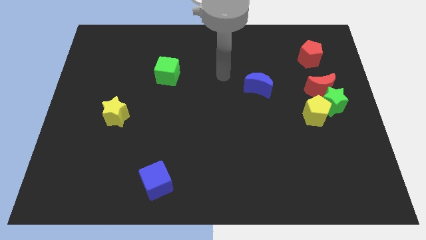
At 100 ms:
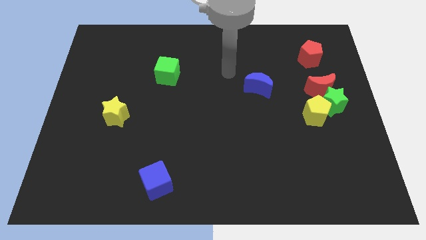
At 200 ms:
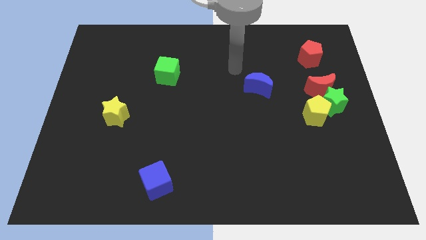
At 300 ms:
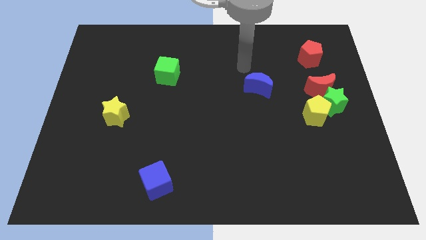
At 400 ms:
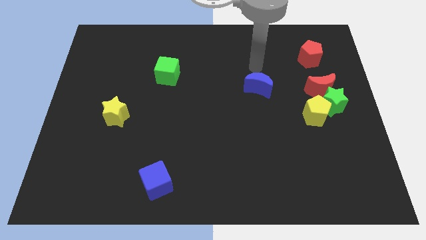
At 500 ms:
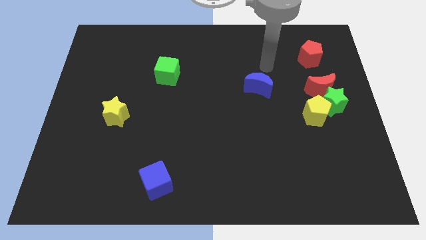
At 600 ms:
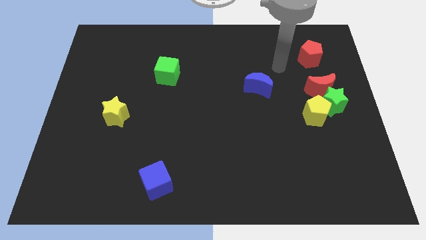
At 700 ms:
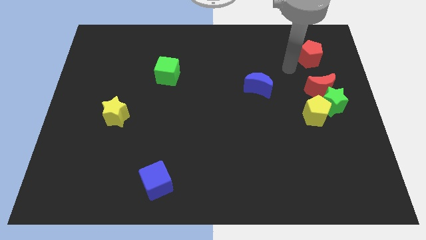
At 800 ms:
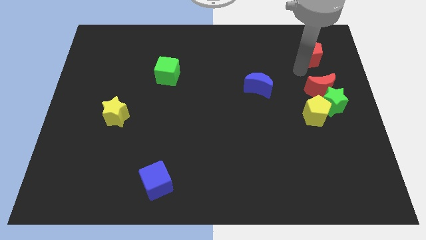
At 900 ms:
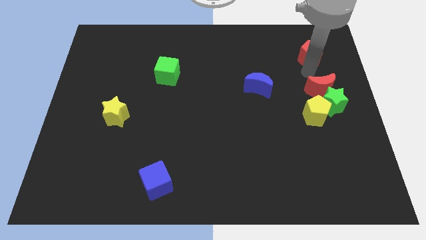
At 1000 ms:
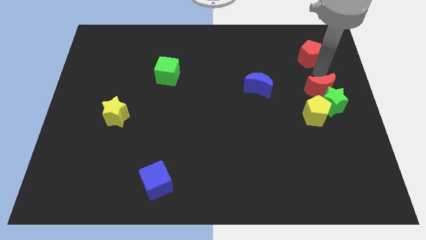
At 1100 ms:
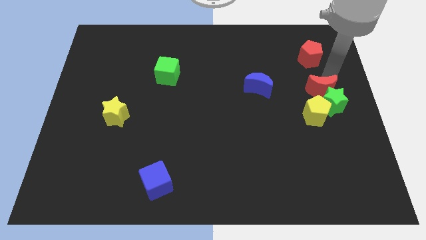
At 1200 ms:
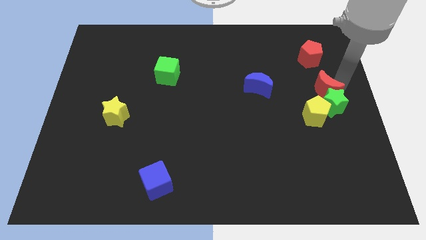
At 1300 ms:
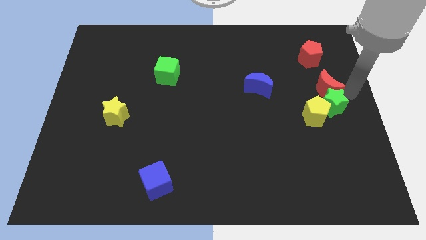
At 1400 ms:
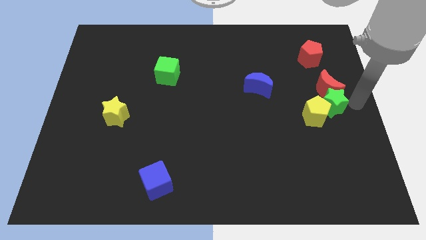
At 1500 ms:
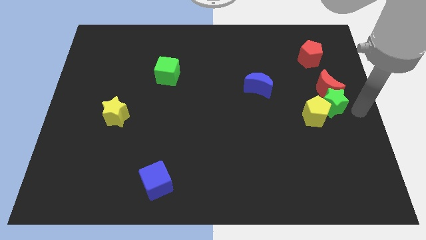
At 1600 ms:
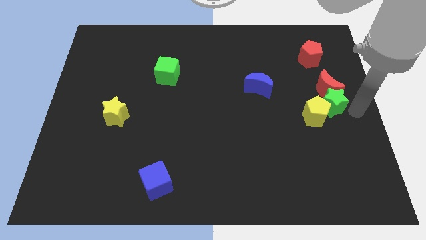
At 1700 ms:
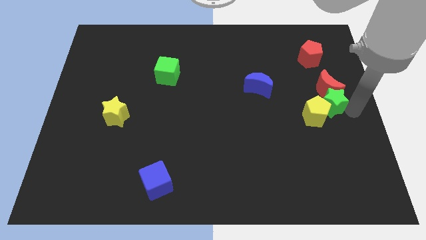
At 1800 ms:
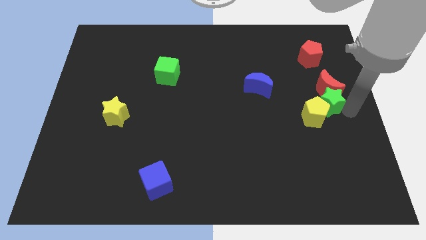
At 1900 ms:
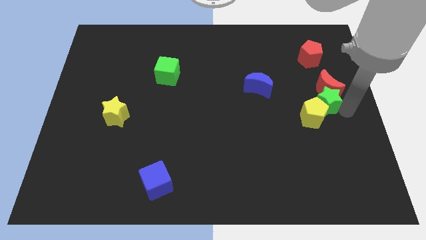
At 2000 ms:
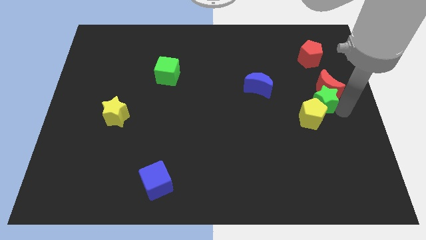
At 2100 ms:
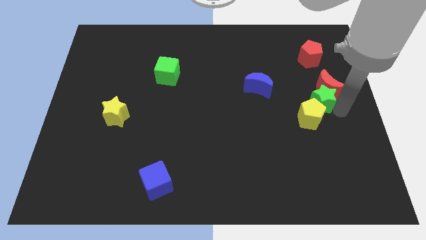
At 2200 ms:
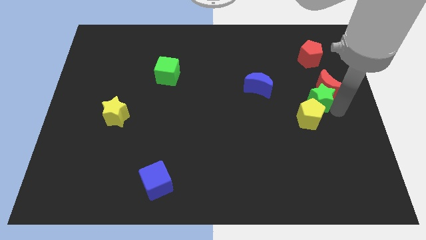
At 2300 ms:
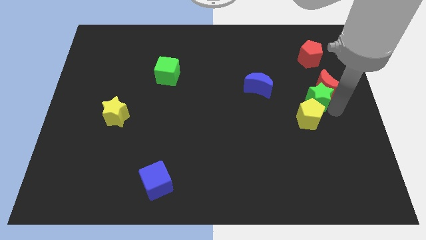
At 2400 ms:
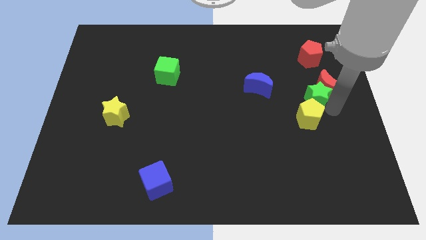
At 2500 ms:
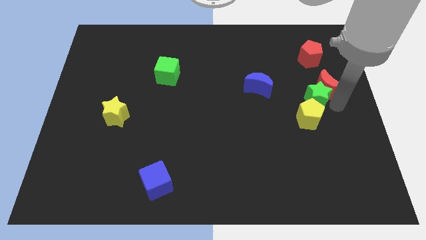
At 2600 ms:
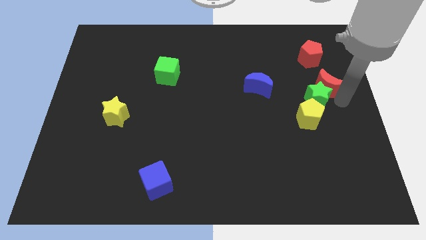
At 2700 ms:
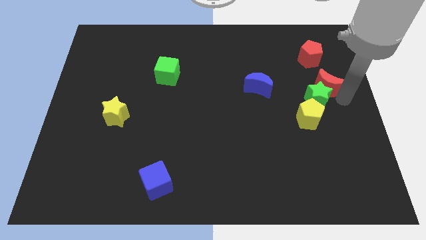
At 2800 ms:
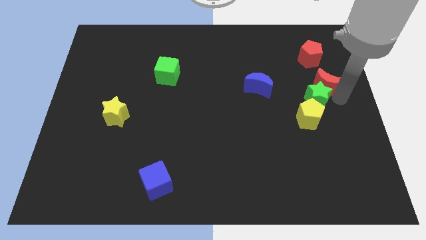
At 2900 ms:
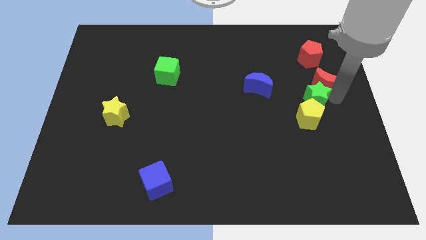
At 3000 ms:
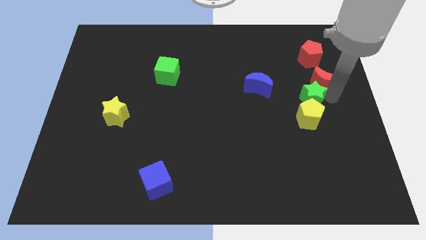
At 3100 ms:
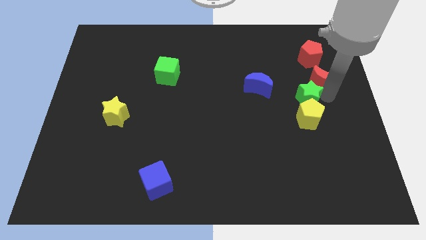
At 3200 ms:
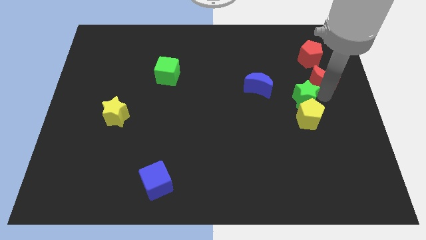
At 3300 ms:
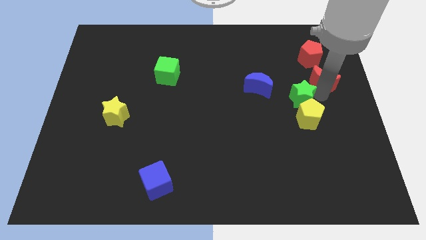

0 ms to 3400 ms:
slightly move the green star left

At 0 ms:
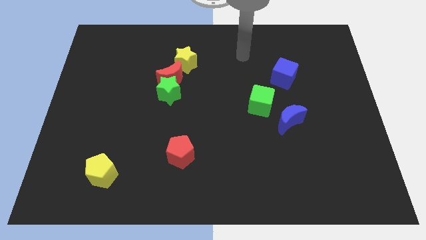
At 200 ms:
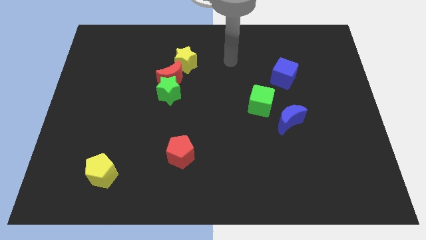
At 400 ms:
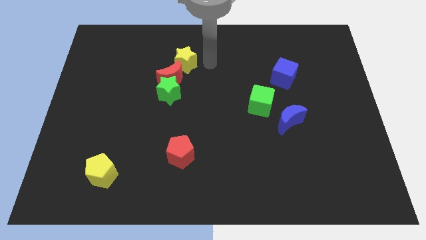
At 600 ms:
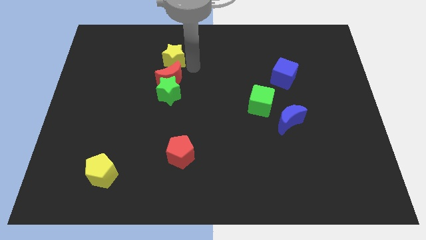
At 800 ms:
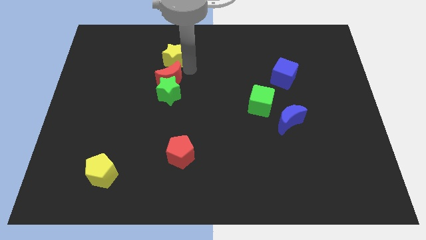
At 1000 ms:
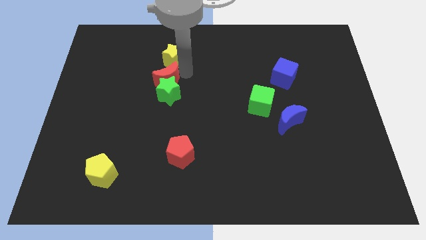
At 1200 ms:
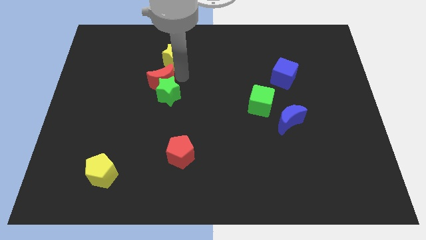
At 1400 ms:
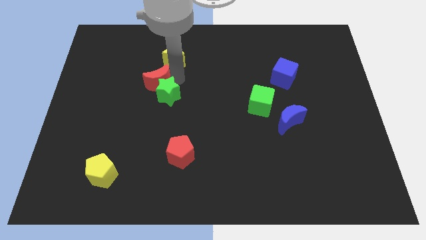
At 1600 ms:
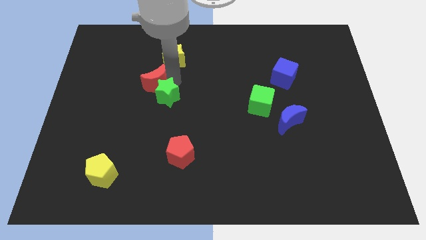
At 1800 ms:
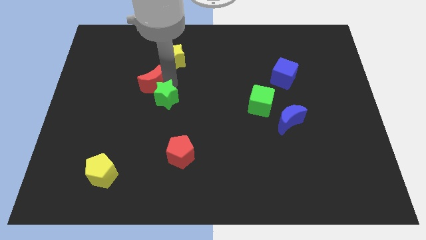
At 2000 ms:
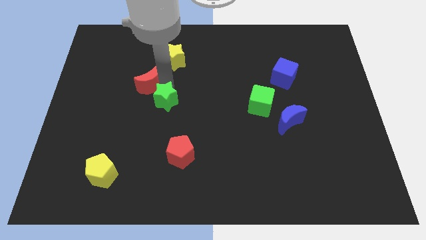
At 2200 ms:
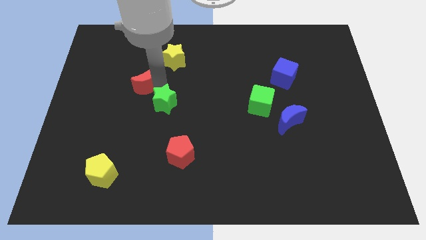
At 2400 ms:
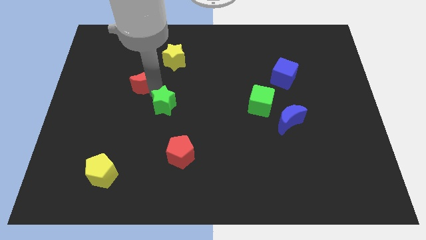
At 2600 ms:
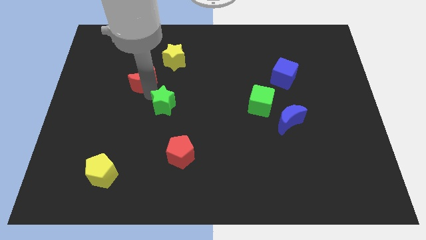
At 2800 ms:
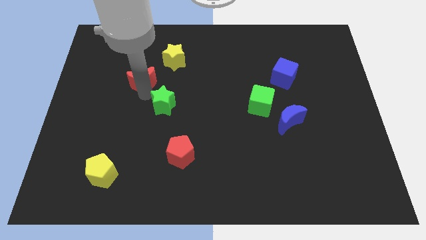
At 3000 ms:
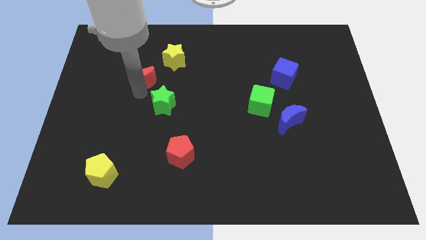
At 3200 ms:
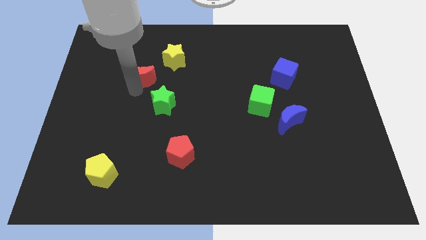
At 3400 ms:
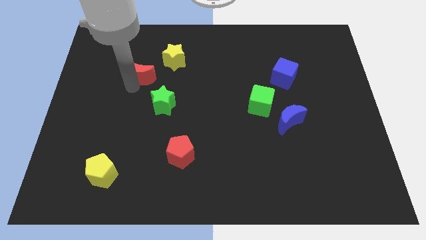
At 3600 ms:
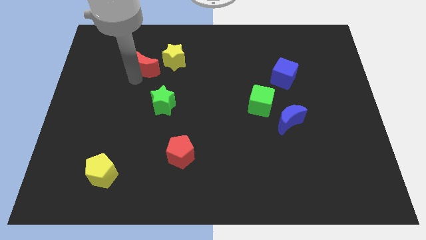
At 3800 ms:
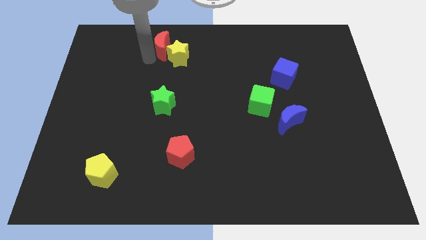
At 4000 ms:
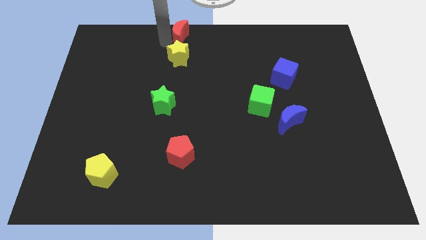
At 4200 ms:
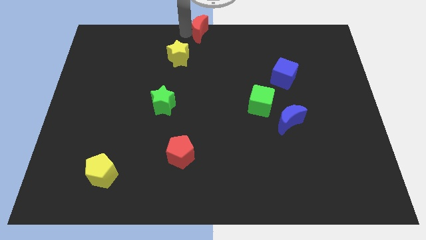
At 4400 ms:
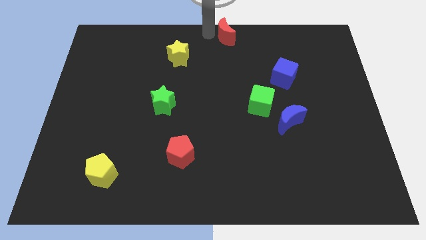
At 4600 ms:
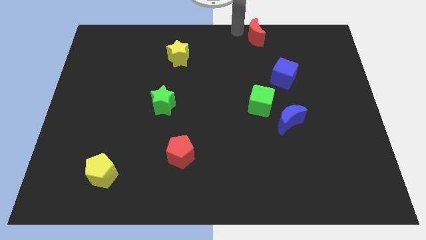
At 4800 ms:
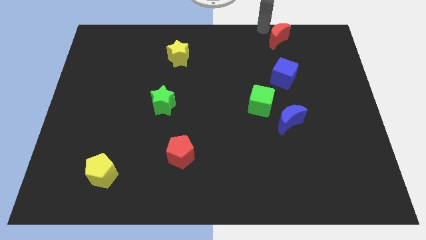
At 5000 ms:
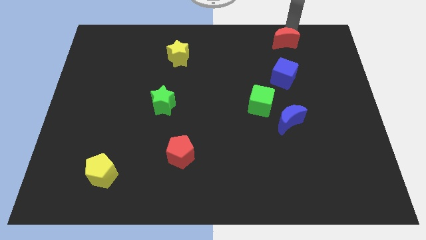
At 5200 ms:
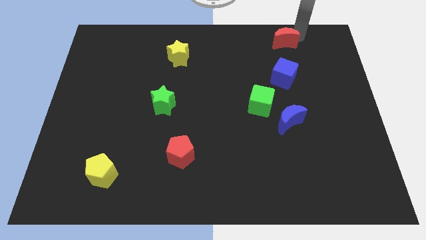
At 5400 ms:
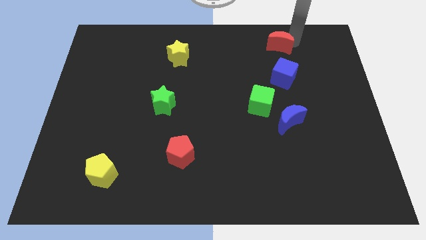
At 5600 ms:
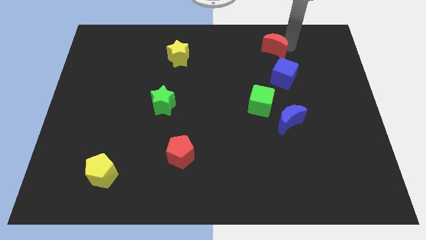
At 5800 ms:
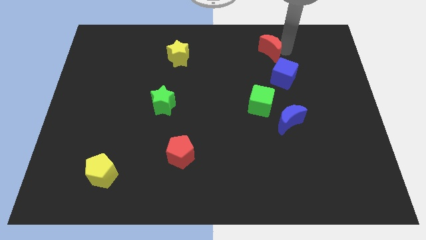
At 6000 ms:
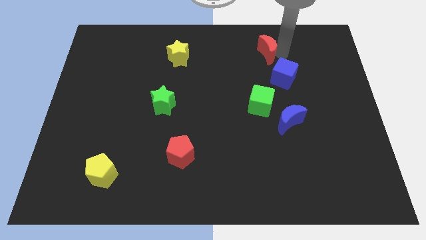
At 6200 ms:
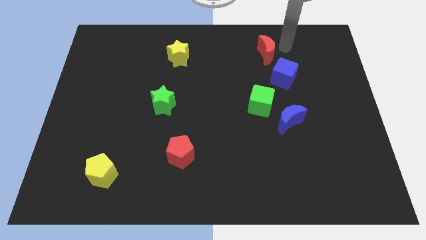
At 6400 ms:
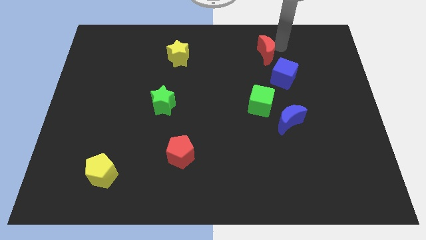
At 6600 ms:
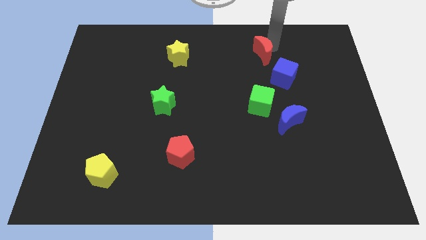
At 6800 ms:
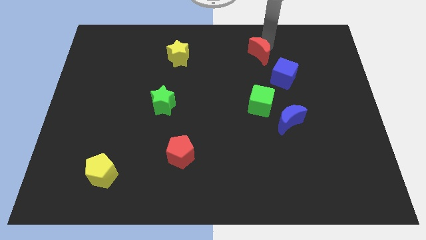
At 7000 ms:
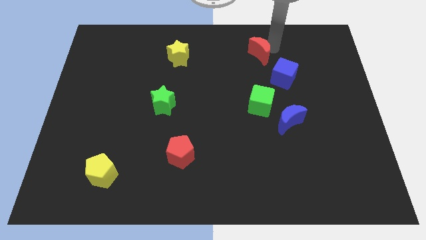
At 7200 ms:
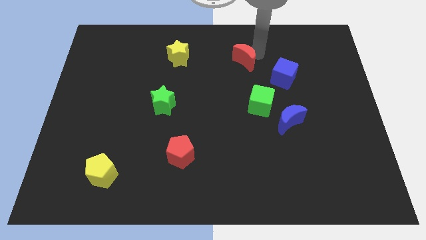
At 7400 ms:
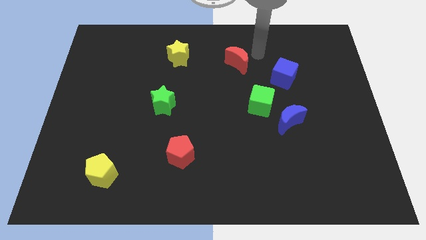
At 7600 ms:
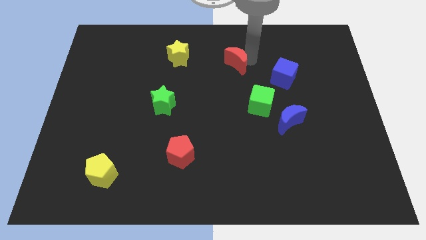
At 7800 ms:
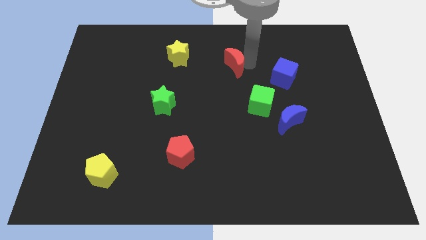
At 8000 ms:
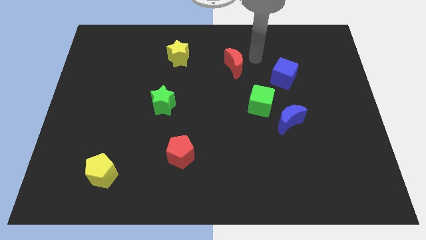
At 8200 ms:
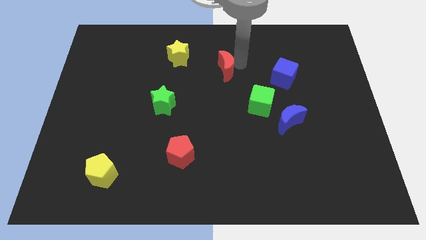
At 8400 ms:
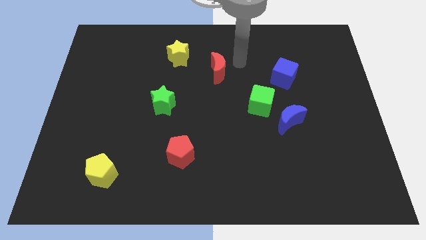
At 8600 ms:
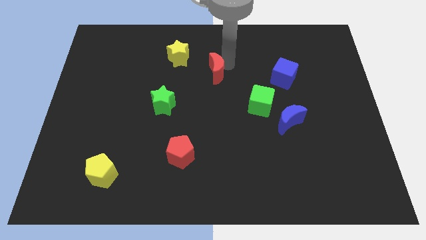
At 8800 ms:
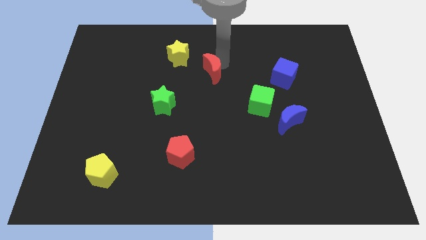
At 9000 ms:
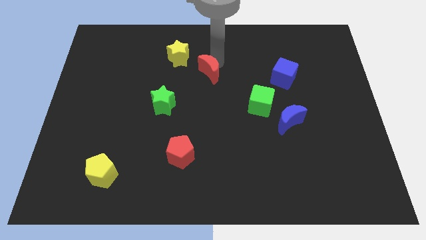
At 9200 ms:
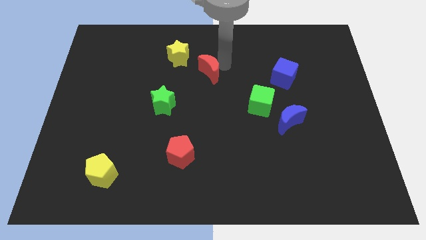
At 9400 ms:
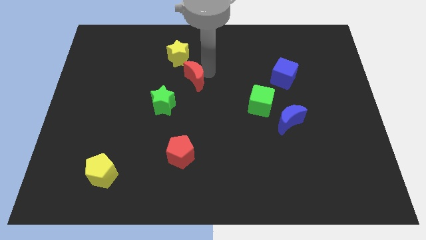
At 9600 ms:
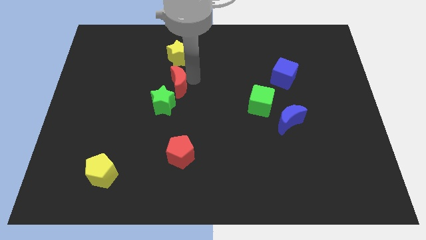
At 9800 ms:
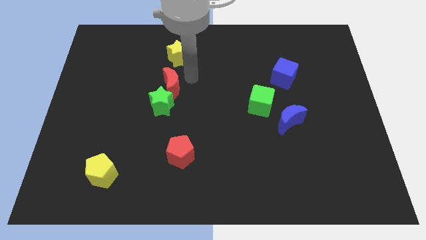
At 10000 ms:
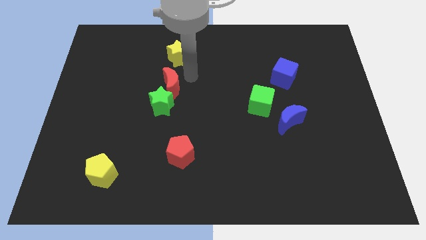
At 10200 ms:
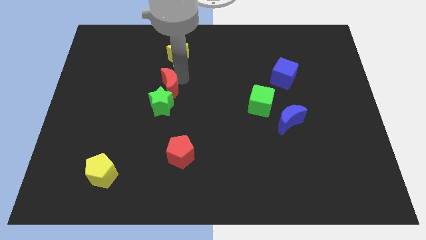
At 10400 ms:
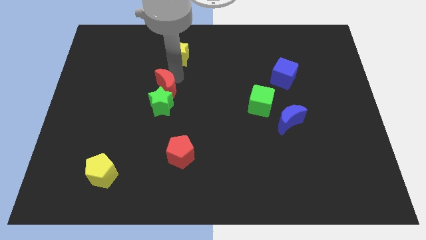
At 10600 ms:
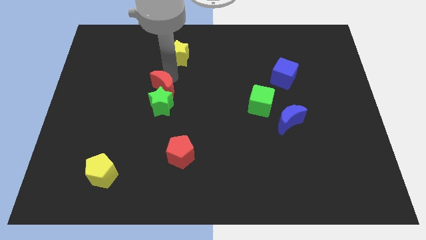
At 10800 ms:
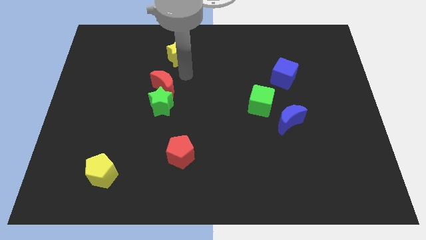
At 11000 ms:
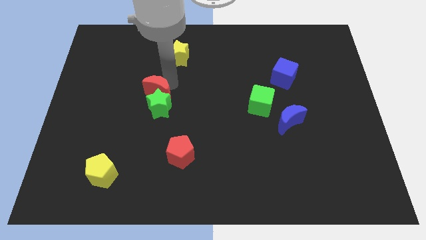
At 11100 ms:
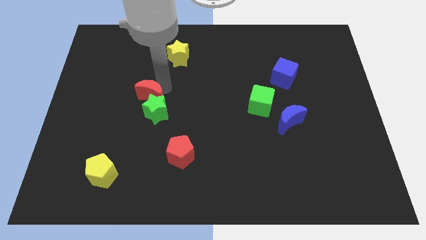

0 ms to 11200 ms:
move the red moon a little bit down and left
